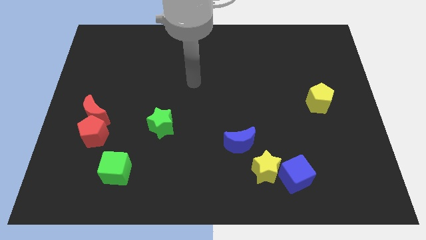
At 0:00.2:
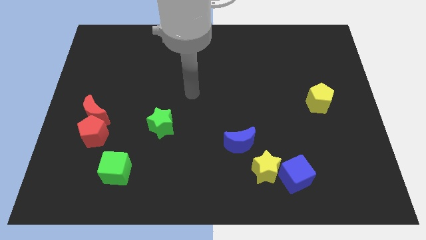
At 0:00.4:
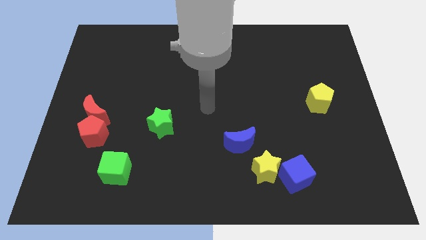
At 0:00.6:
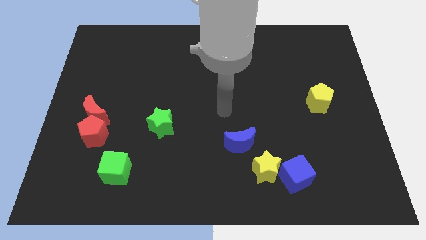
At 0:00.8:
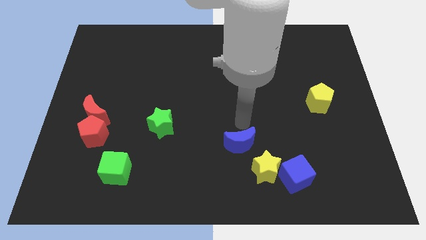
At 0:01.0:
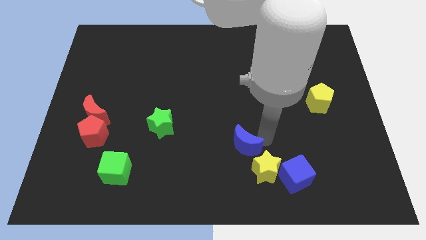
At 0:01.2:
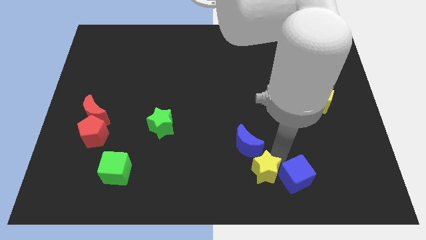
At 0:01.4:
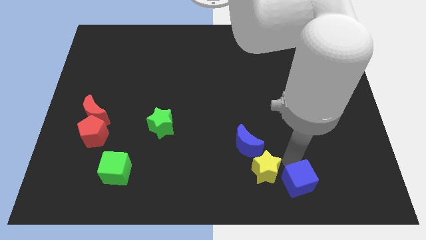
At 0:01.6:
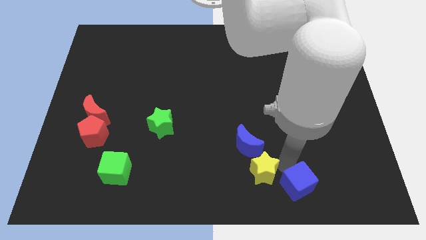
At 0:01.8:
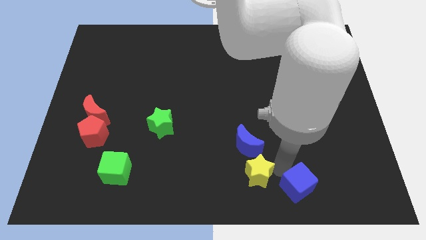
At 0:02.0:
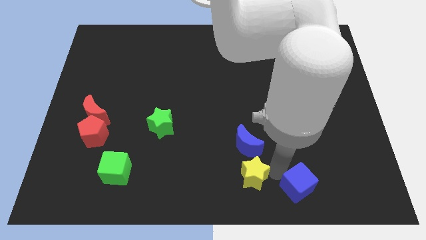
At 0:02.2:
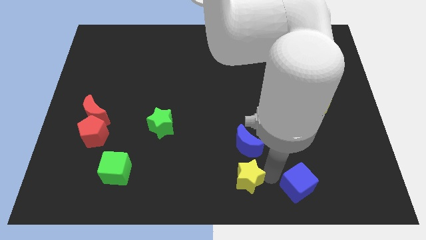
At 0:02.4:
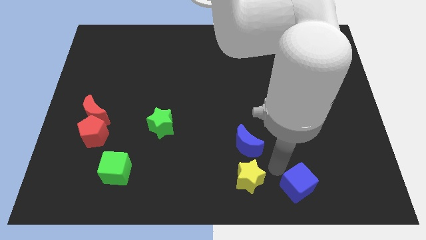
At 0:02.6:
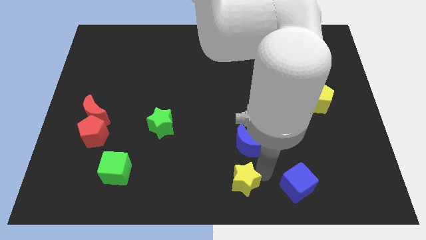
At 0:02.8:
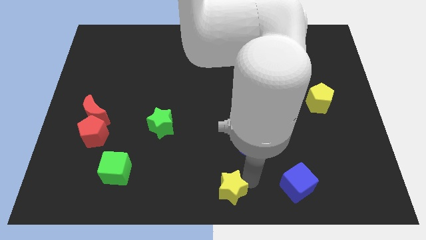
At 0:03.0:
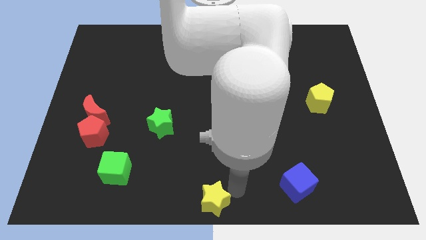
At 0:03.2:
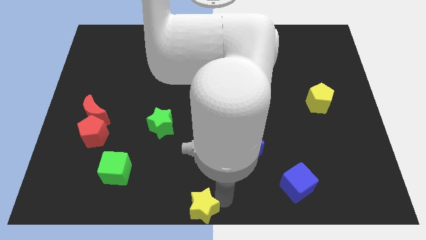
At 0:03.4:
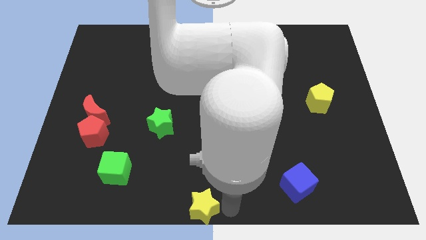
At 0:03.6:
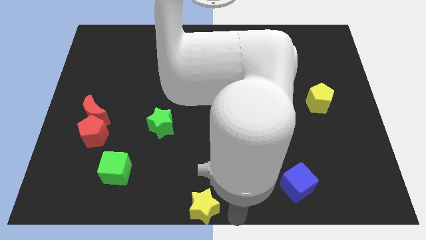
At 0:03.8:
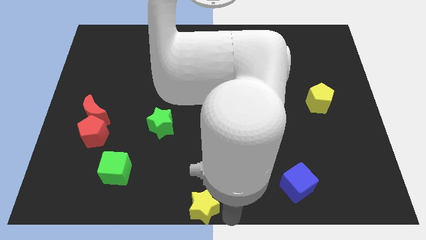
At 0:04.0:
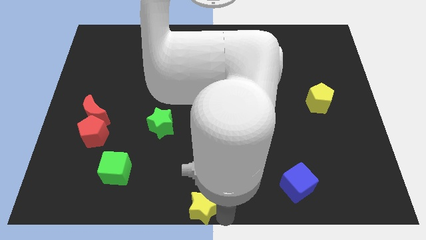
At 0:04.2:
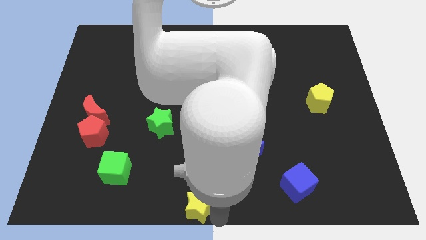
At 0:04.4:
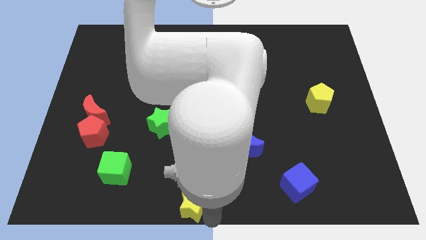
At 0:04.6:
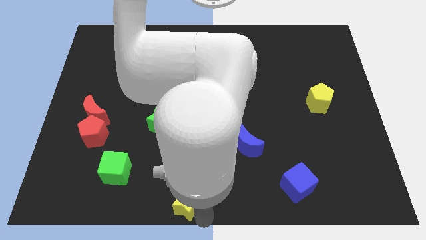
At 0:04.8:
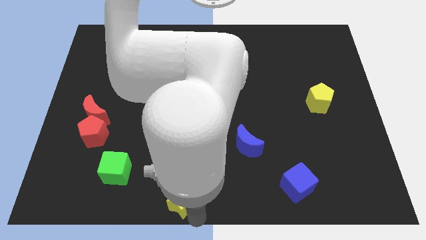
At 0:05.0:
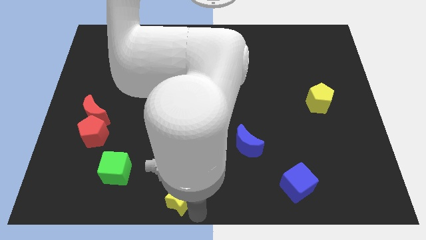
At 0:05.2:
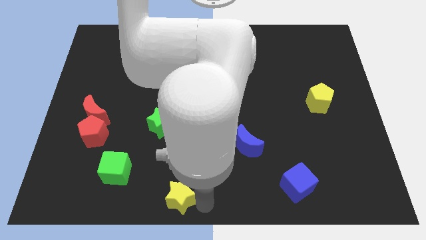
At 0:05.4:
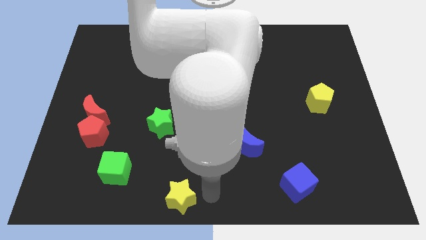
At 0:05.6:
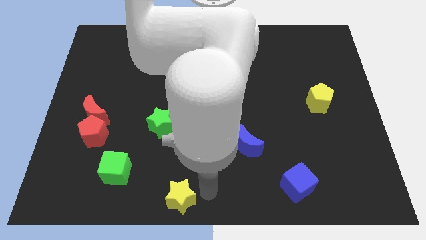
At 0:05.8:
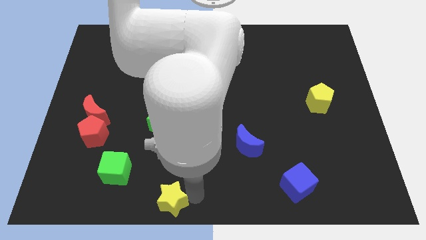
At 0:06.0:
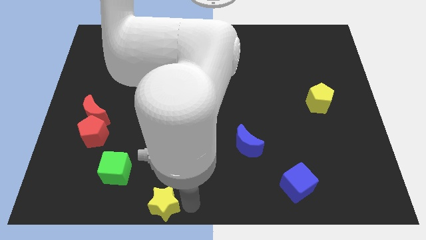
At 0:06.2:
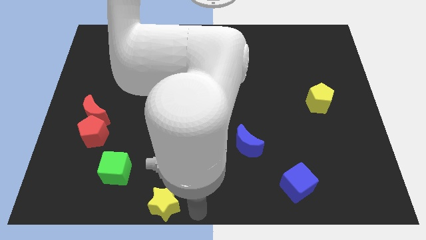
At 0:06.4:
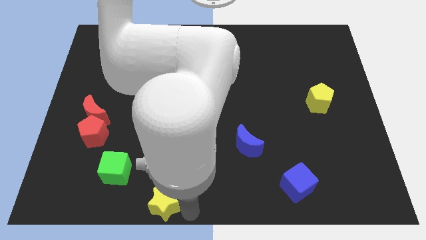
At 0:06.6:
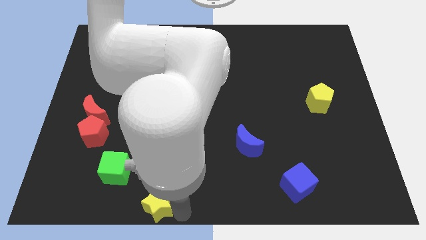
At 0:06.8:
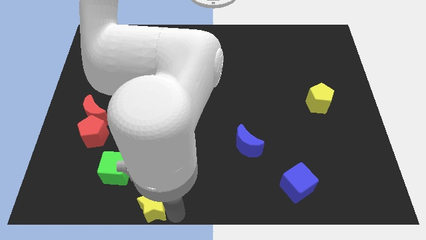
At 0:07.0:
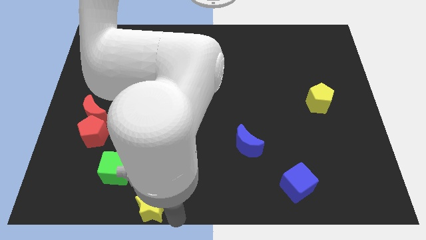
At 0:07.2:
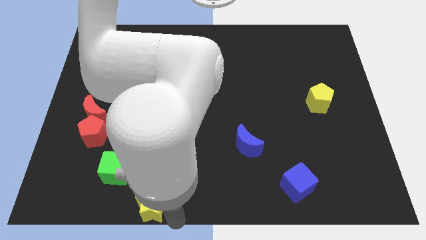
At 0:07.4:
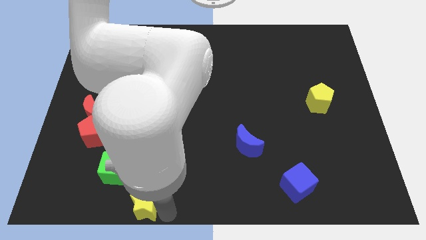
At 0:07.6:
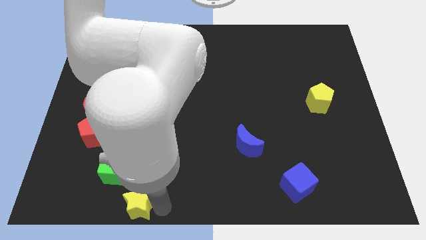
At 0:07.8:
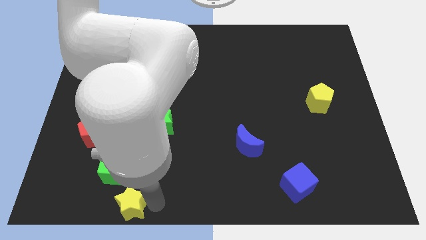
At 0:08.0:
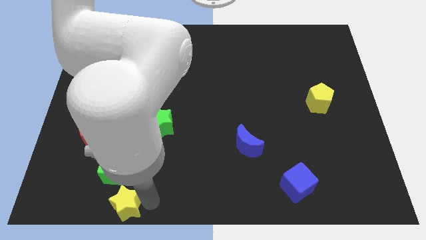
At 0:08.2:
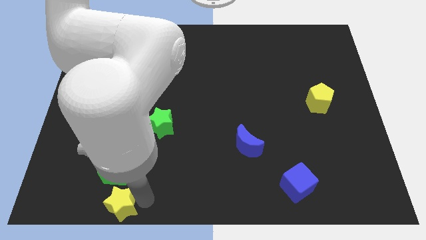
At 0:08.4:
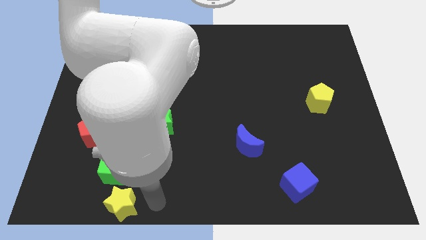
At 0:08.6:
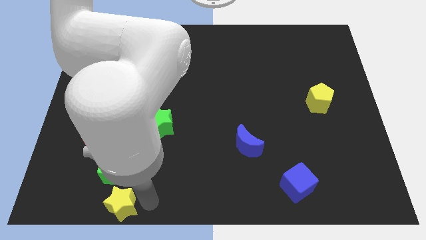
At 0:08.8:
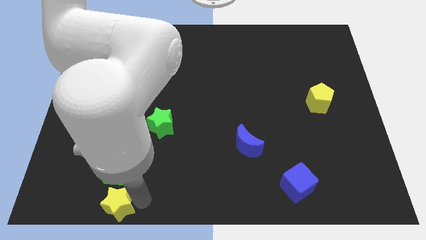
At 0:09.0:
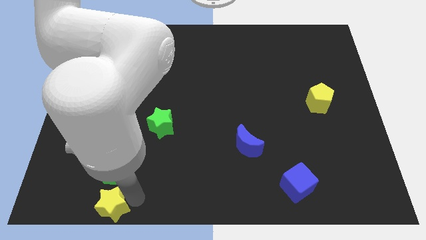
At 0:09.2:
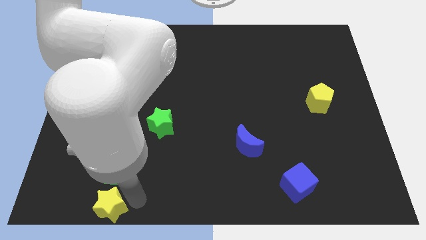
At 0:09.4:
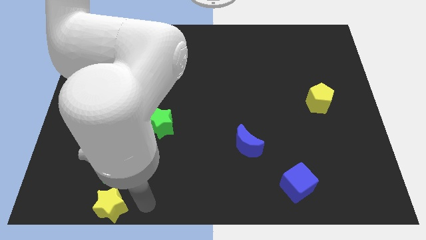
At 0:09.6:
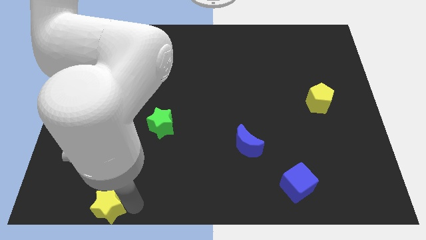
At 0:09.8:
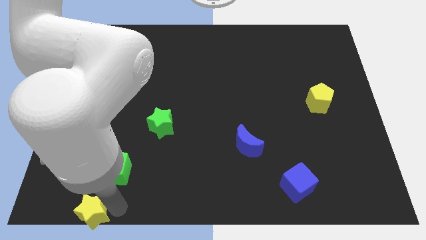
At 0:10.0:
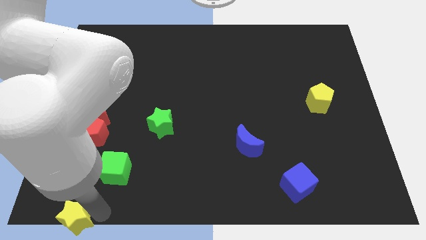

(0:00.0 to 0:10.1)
put the yellow star to the bottom left corner

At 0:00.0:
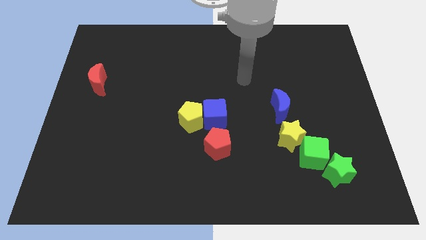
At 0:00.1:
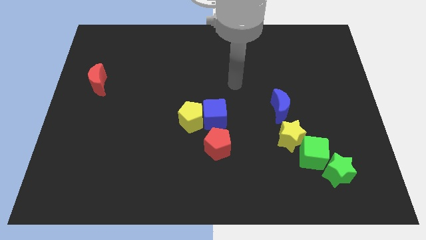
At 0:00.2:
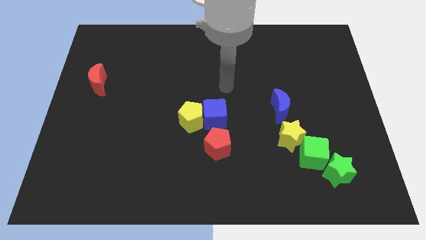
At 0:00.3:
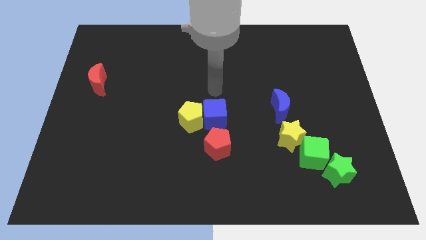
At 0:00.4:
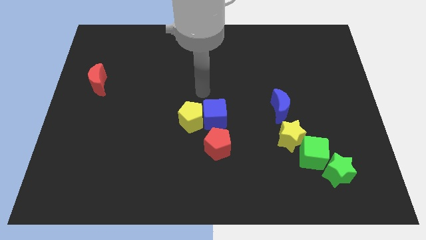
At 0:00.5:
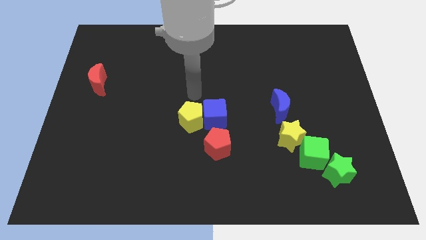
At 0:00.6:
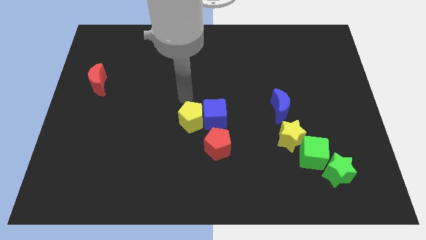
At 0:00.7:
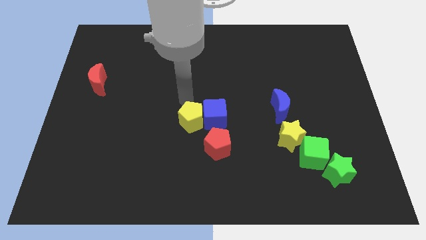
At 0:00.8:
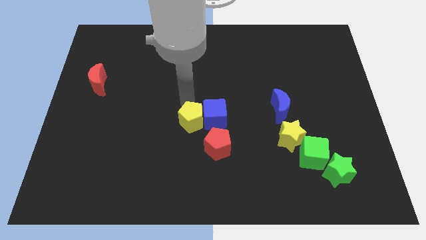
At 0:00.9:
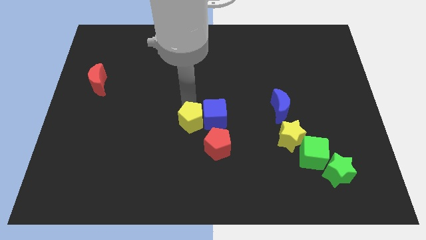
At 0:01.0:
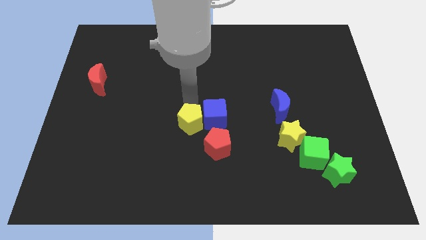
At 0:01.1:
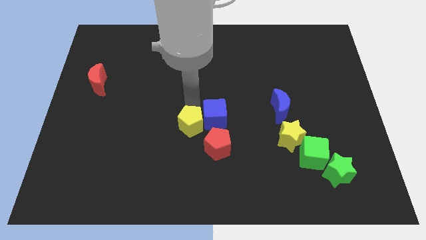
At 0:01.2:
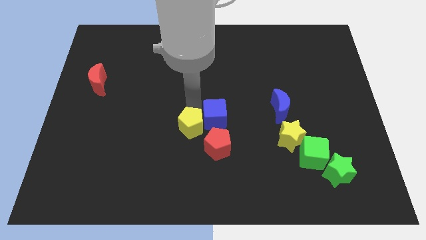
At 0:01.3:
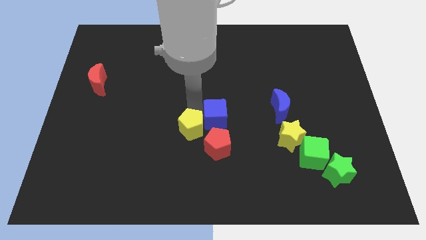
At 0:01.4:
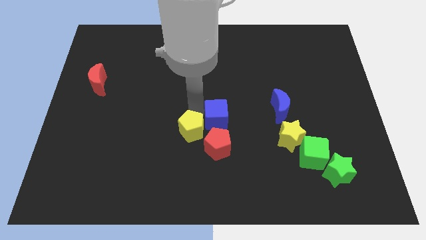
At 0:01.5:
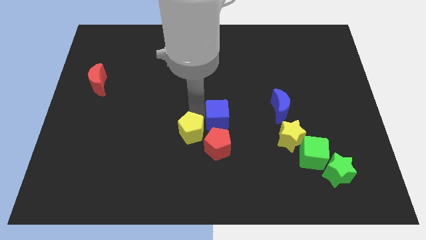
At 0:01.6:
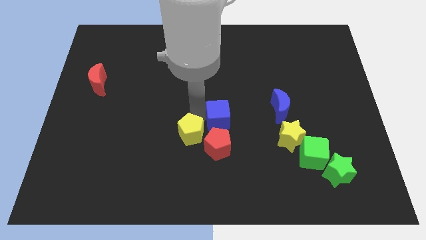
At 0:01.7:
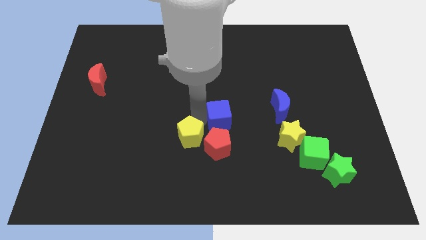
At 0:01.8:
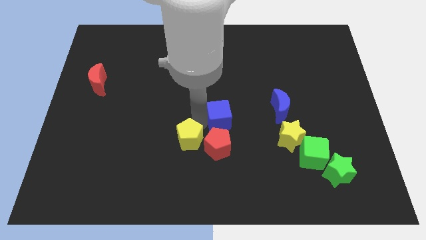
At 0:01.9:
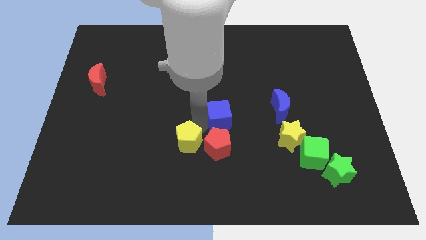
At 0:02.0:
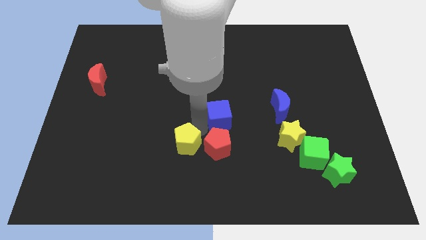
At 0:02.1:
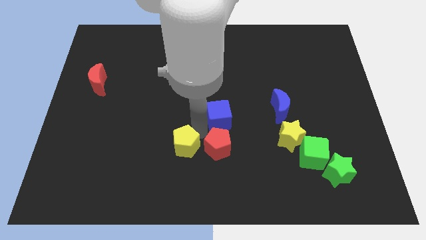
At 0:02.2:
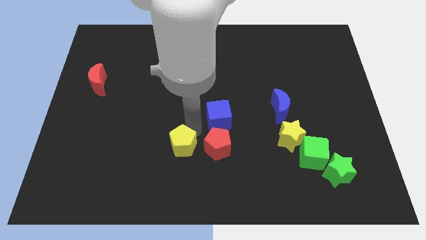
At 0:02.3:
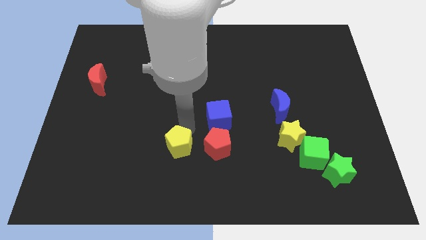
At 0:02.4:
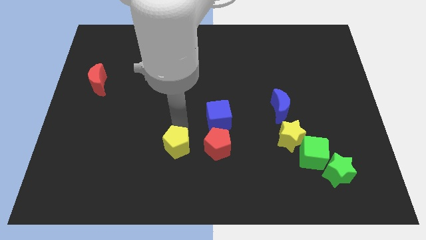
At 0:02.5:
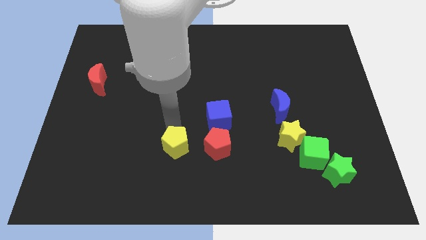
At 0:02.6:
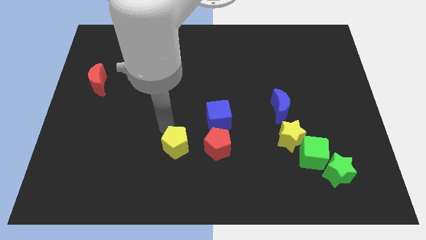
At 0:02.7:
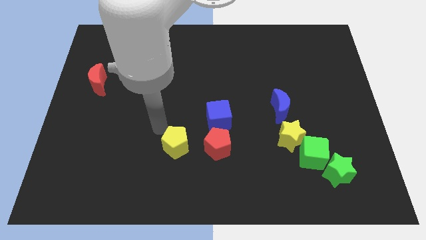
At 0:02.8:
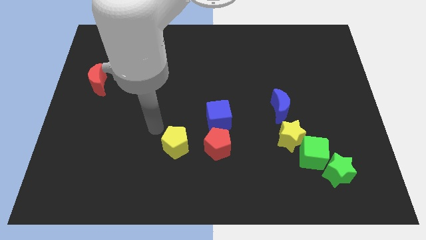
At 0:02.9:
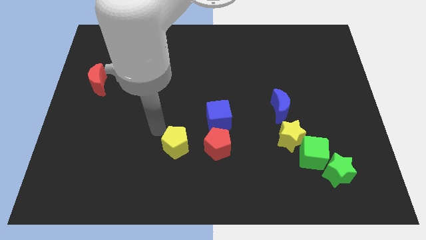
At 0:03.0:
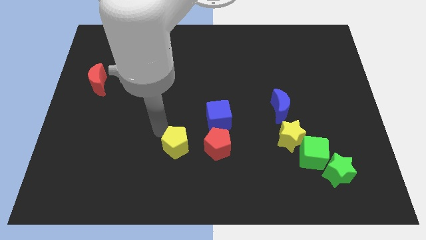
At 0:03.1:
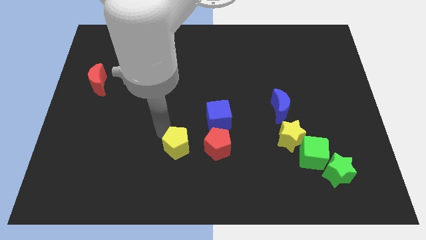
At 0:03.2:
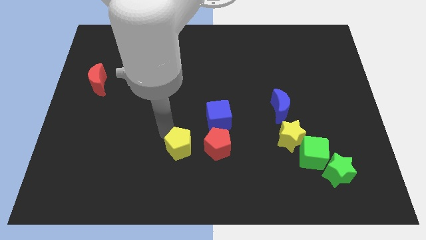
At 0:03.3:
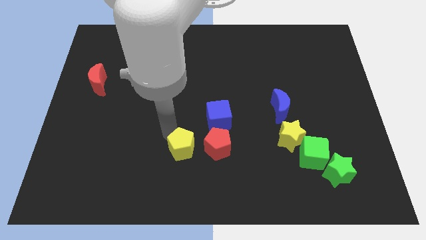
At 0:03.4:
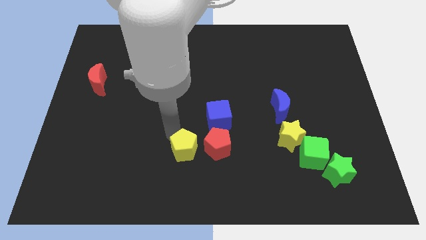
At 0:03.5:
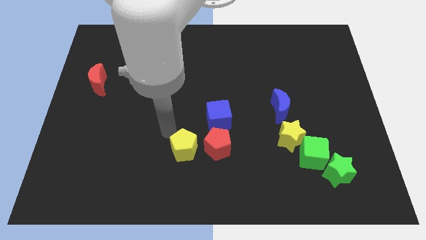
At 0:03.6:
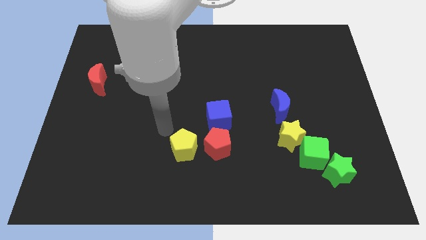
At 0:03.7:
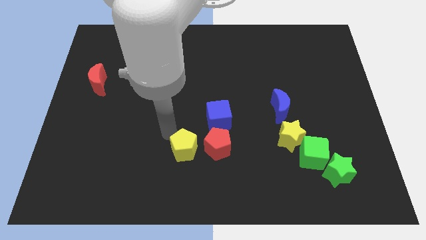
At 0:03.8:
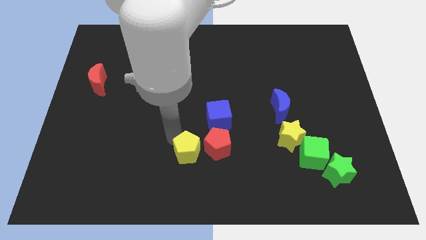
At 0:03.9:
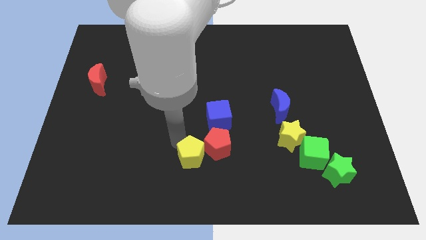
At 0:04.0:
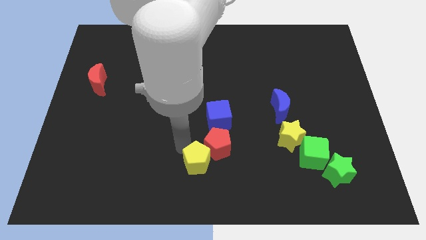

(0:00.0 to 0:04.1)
move the yellow pentagon to the bottom
